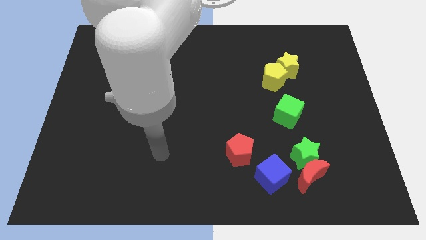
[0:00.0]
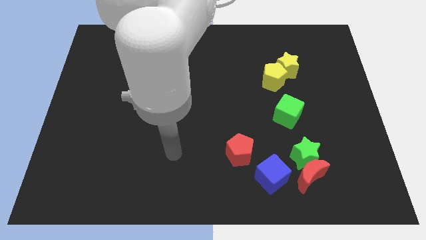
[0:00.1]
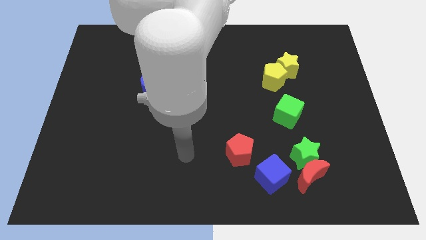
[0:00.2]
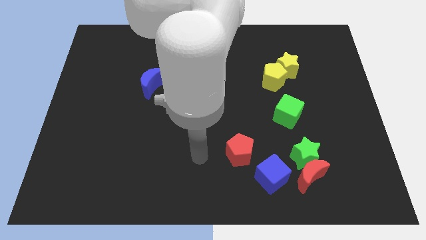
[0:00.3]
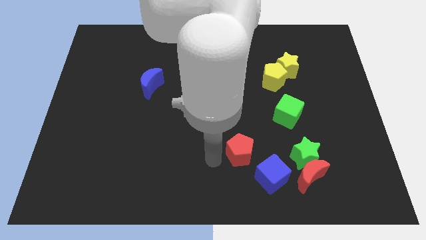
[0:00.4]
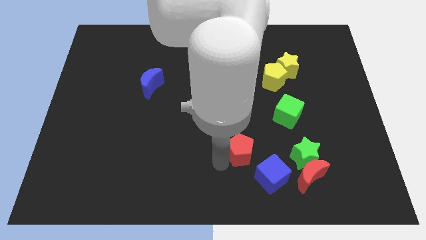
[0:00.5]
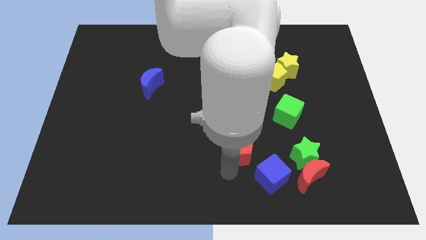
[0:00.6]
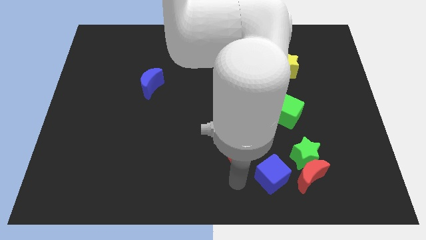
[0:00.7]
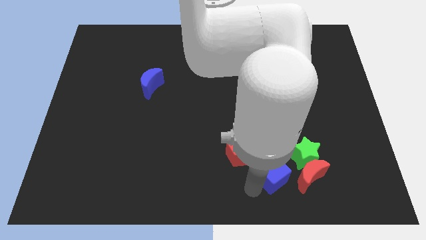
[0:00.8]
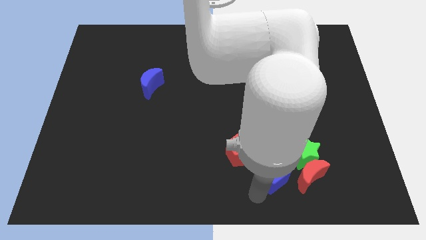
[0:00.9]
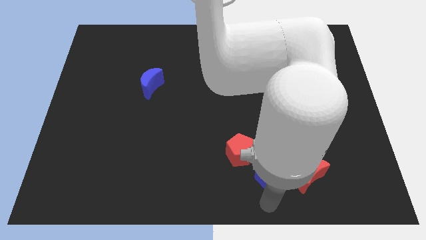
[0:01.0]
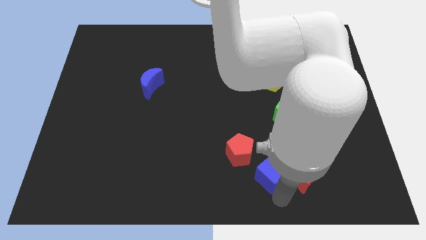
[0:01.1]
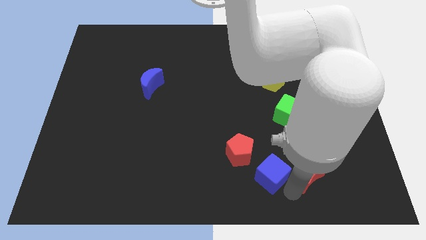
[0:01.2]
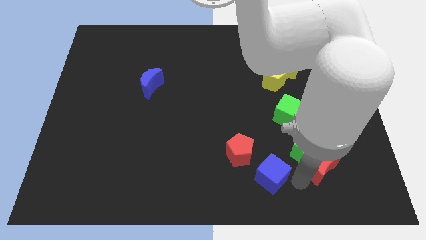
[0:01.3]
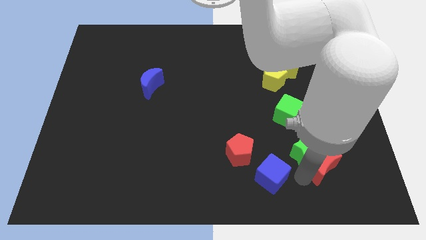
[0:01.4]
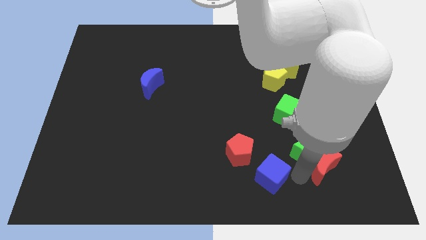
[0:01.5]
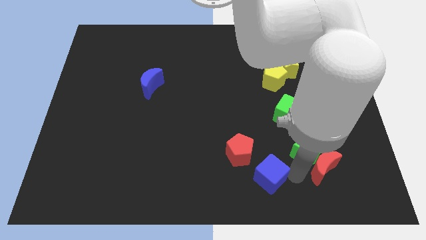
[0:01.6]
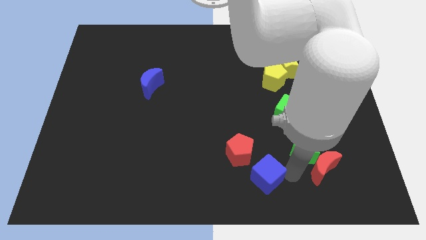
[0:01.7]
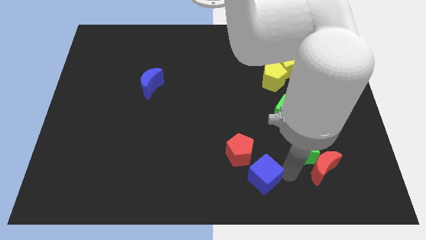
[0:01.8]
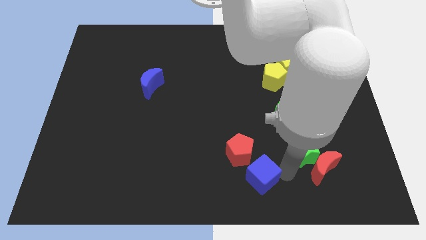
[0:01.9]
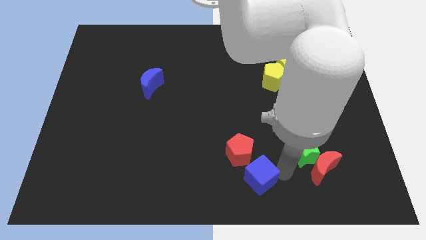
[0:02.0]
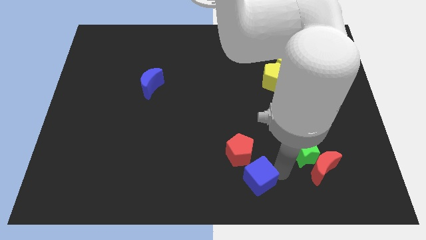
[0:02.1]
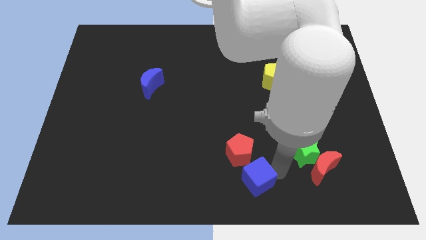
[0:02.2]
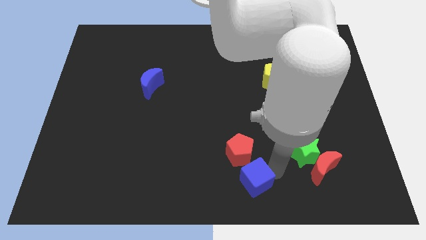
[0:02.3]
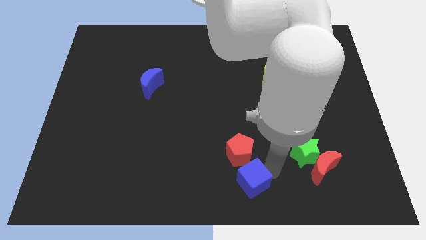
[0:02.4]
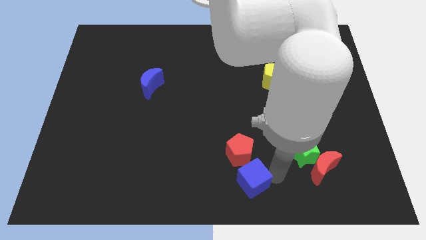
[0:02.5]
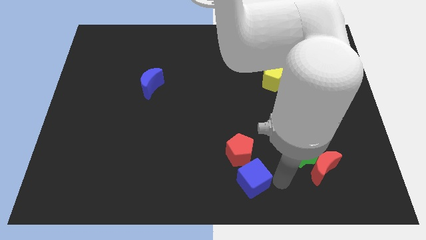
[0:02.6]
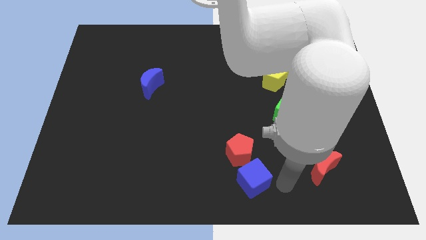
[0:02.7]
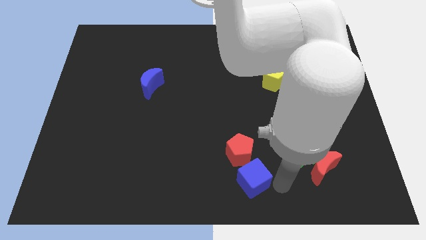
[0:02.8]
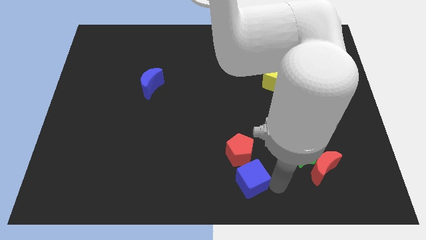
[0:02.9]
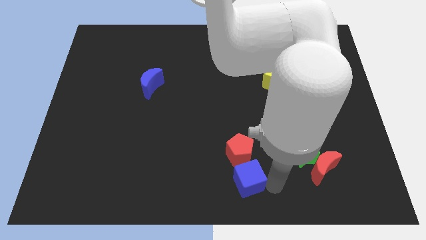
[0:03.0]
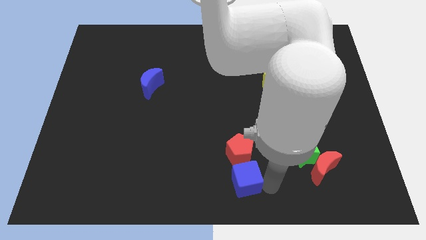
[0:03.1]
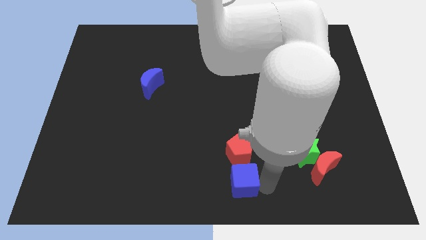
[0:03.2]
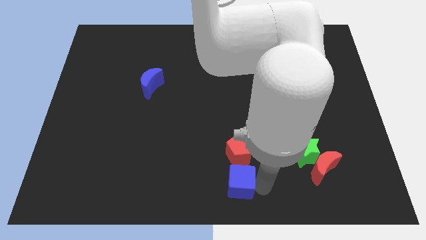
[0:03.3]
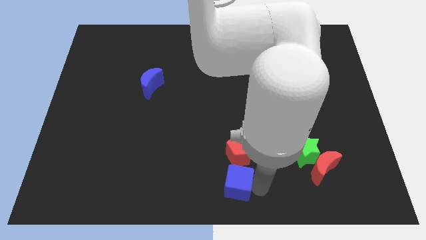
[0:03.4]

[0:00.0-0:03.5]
move the blue cube somewhat to the left

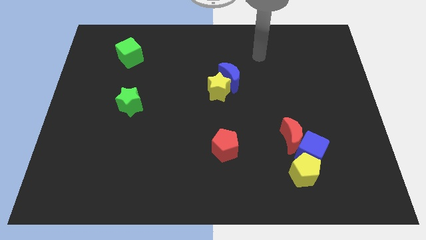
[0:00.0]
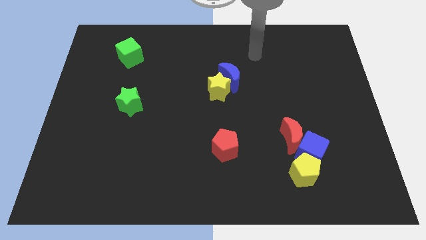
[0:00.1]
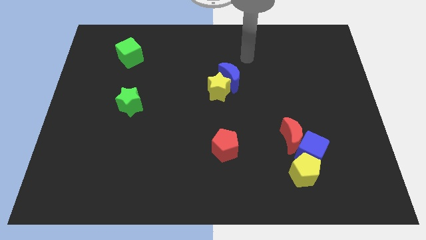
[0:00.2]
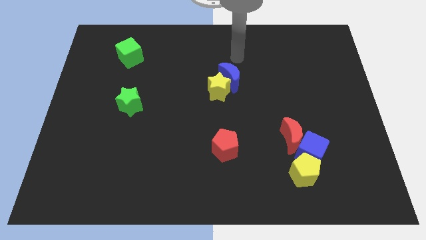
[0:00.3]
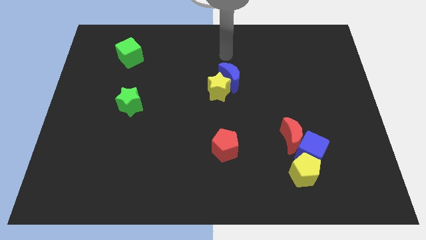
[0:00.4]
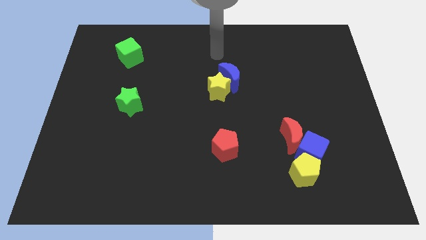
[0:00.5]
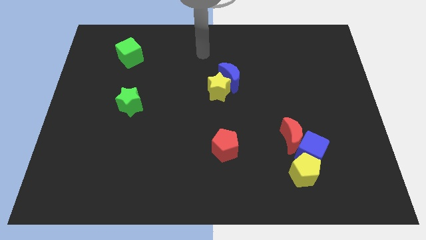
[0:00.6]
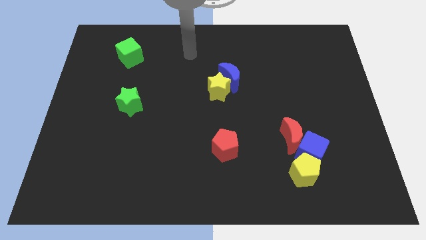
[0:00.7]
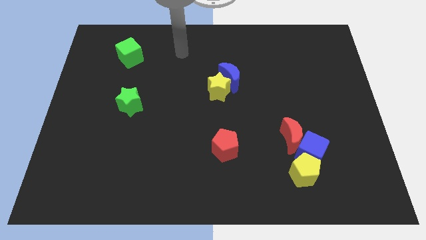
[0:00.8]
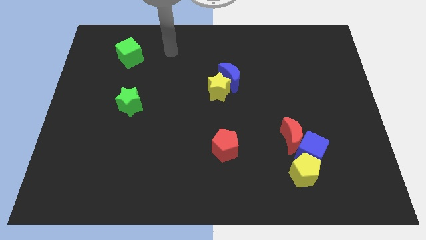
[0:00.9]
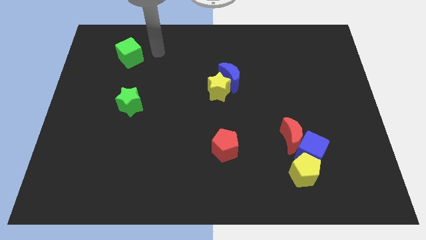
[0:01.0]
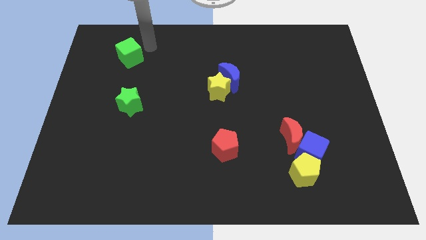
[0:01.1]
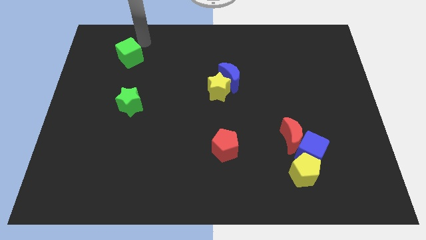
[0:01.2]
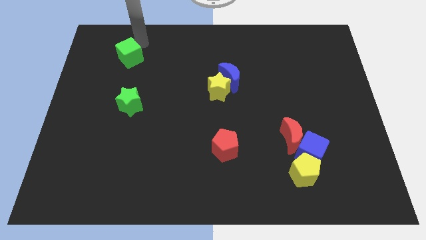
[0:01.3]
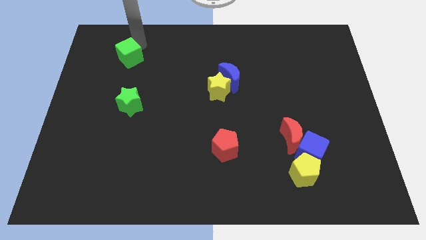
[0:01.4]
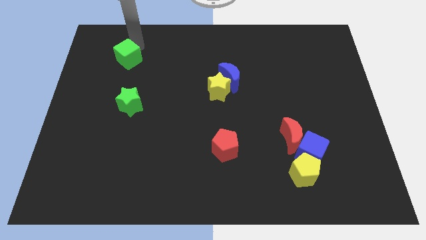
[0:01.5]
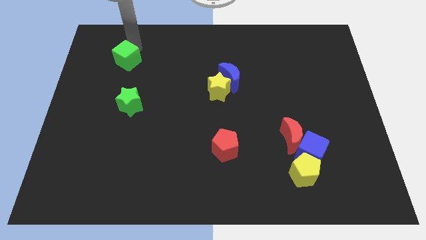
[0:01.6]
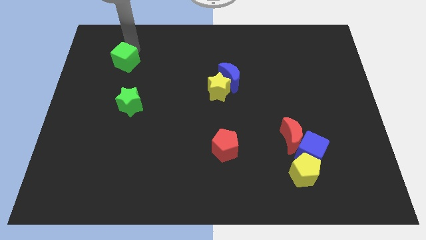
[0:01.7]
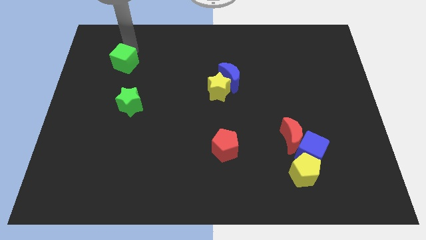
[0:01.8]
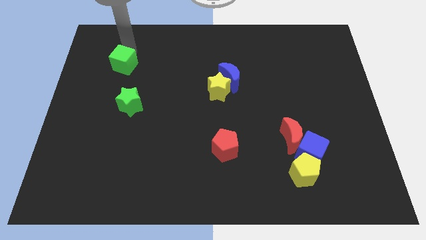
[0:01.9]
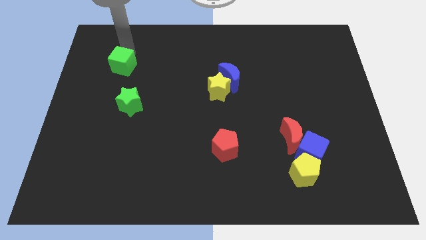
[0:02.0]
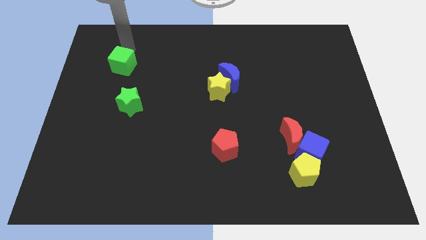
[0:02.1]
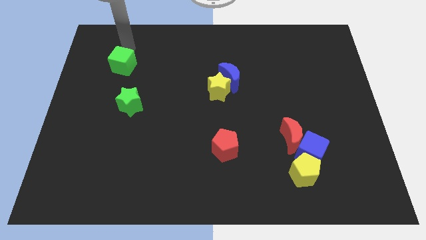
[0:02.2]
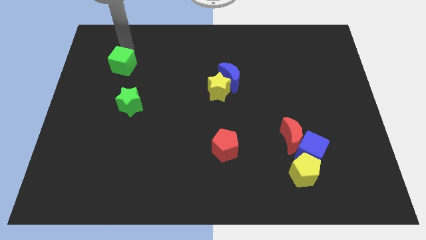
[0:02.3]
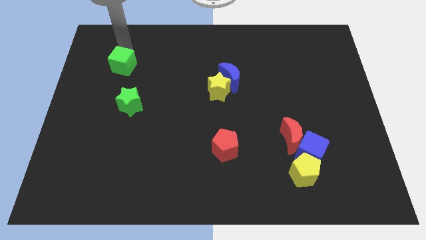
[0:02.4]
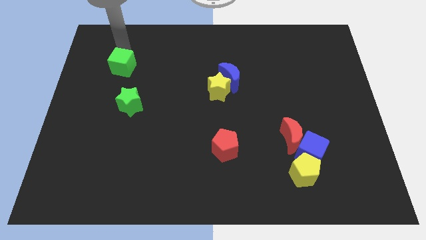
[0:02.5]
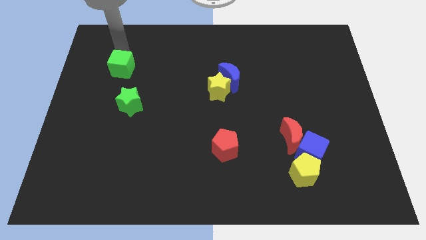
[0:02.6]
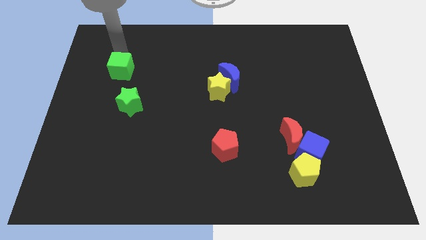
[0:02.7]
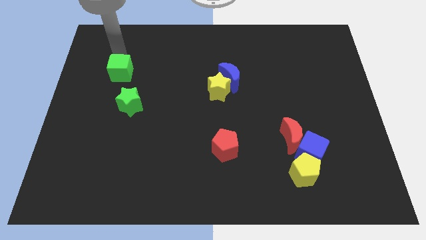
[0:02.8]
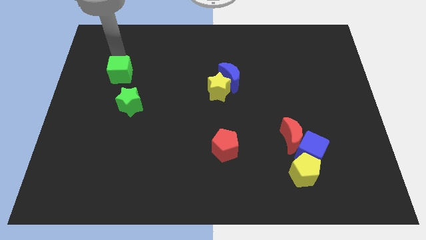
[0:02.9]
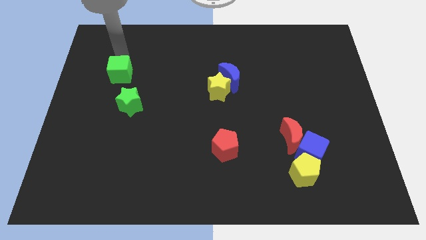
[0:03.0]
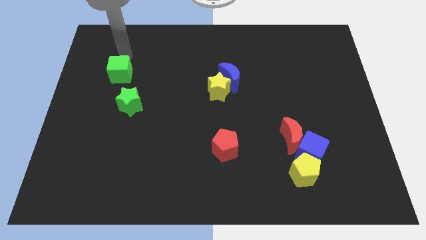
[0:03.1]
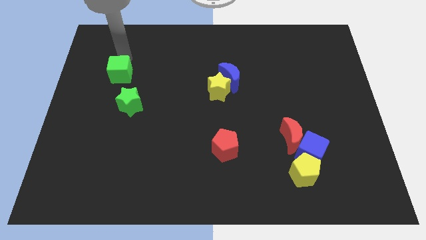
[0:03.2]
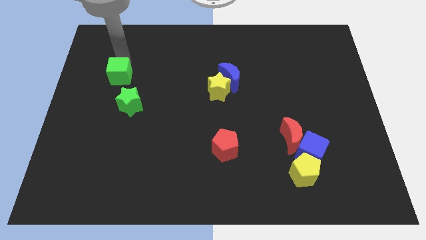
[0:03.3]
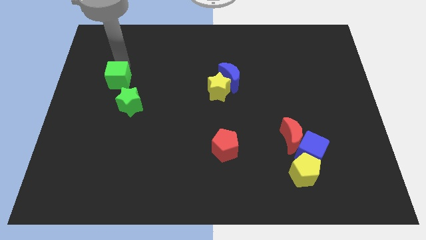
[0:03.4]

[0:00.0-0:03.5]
slightly move the green cube down

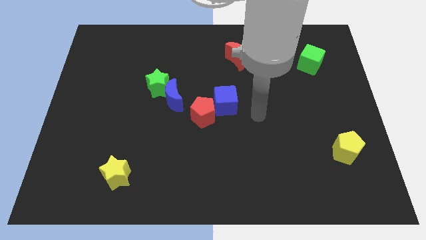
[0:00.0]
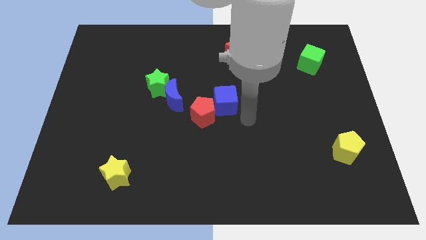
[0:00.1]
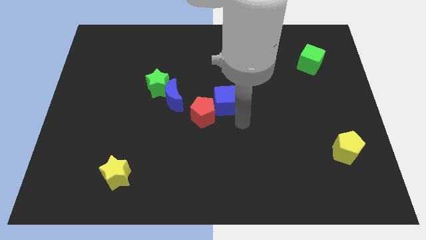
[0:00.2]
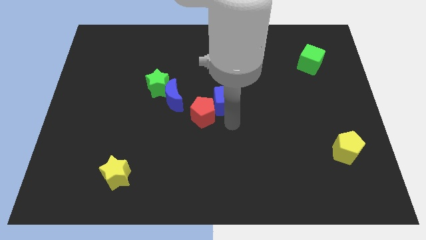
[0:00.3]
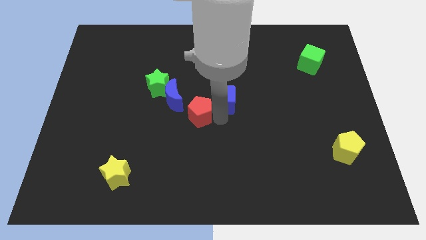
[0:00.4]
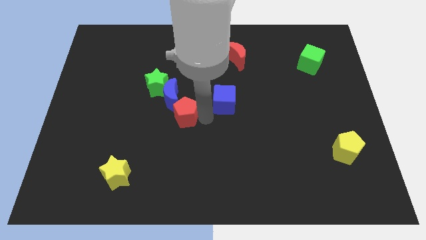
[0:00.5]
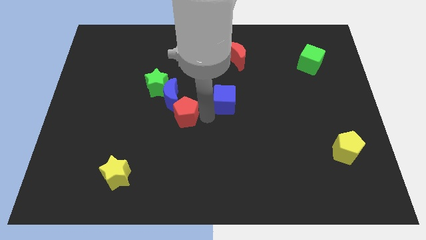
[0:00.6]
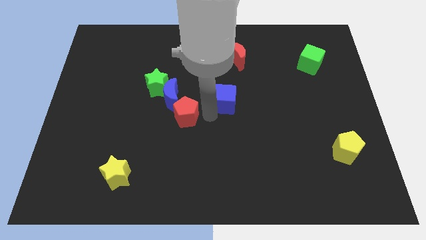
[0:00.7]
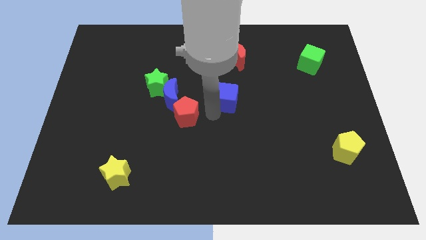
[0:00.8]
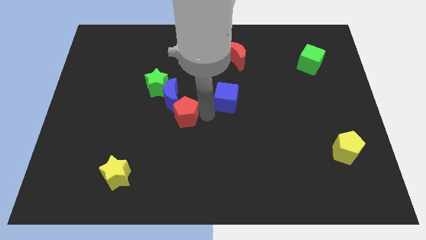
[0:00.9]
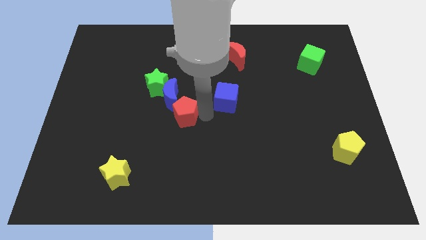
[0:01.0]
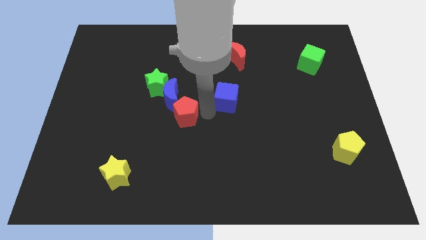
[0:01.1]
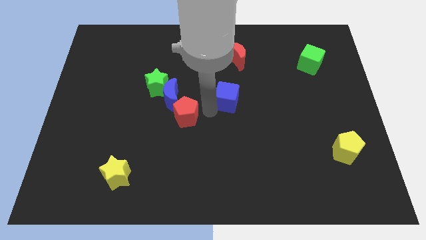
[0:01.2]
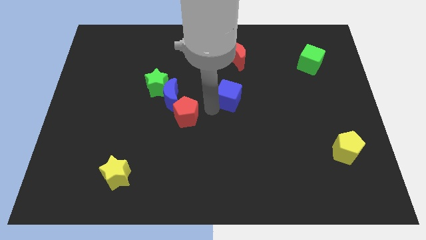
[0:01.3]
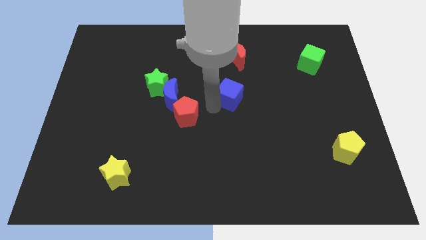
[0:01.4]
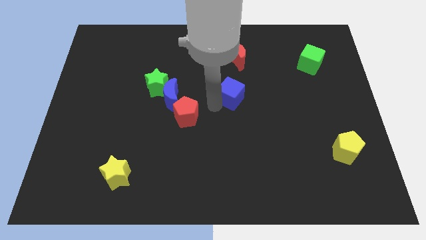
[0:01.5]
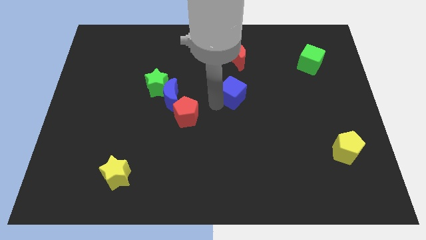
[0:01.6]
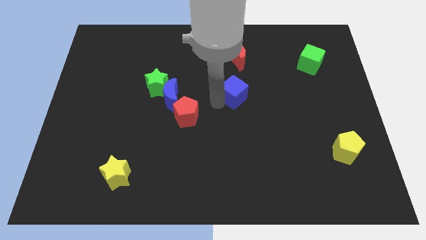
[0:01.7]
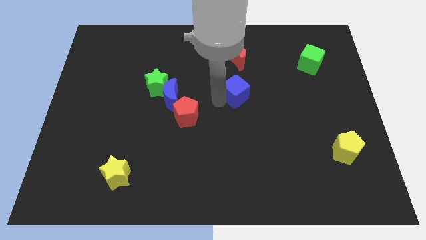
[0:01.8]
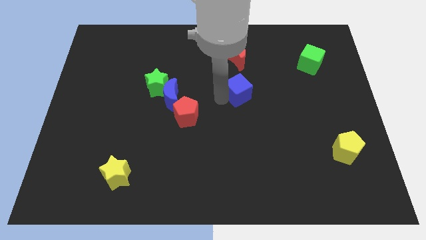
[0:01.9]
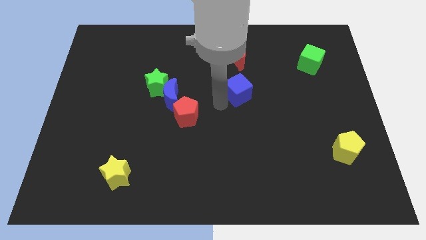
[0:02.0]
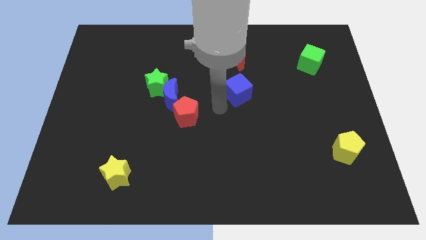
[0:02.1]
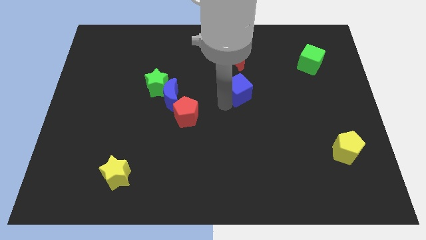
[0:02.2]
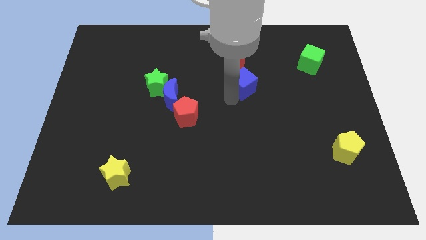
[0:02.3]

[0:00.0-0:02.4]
push the blue cube diagonally upwards and right slightly
